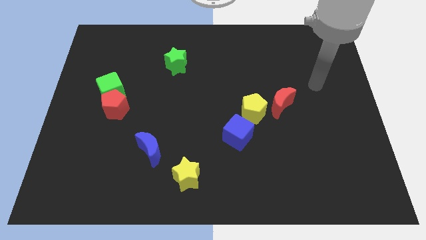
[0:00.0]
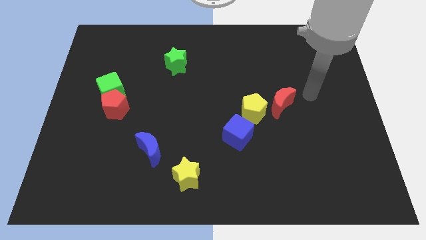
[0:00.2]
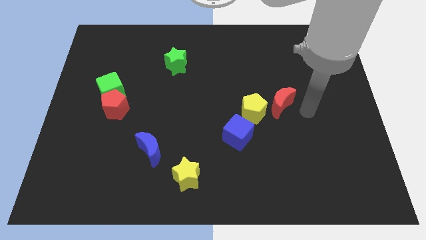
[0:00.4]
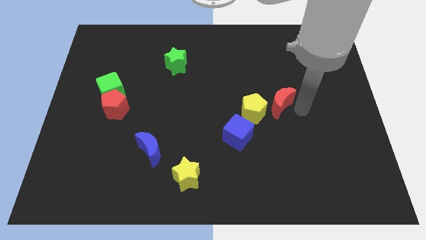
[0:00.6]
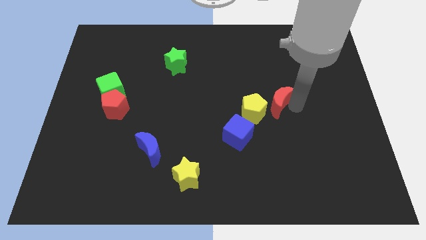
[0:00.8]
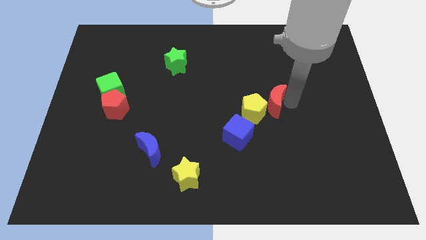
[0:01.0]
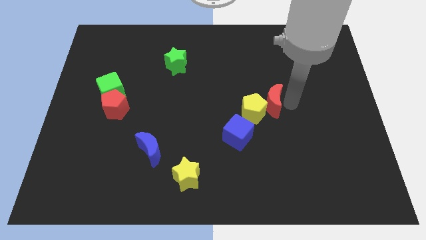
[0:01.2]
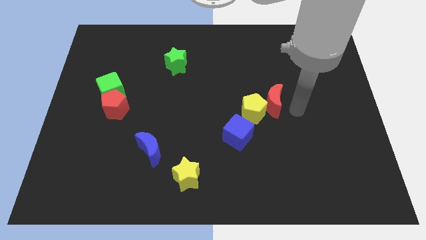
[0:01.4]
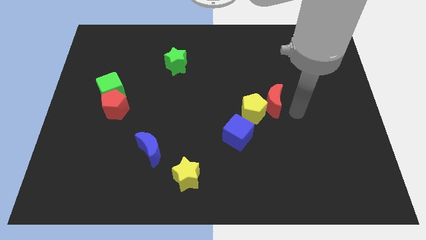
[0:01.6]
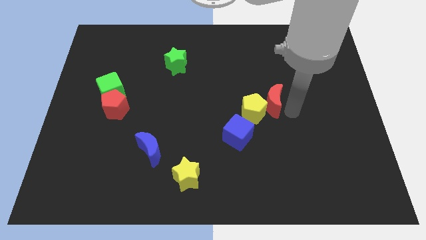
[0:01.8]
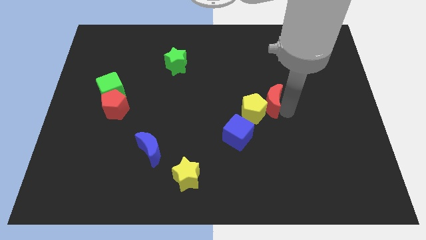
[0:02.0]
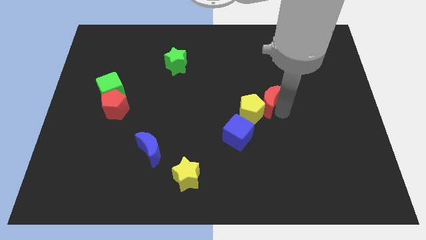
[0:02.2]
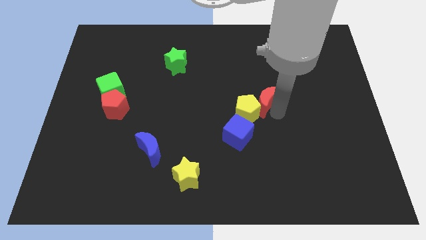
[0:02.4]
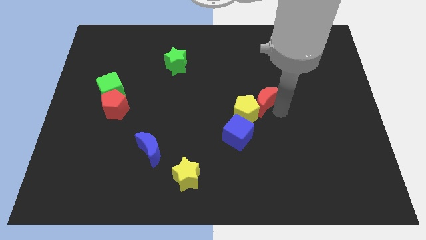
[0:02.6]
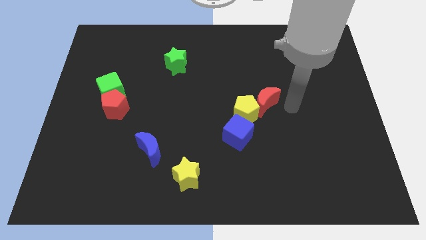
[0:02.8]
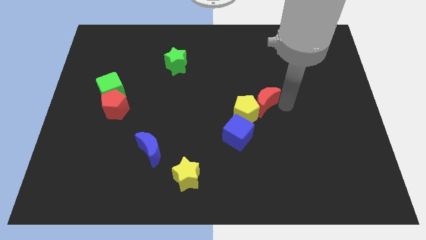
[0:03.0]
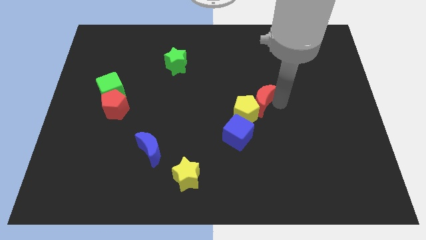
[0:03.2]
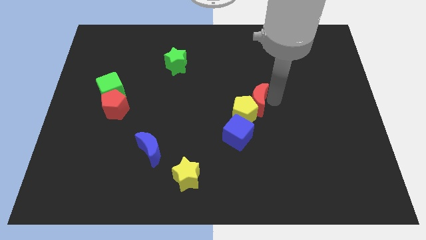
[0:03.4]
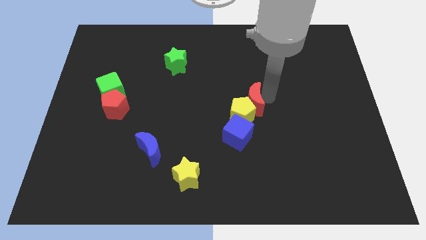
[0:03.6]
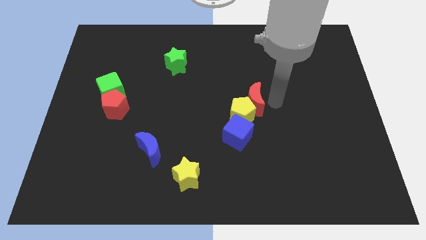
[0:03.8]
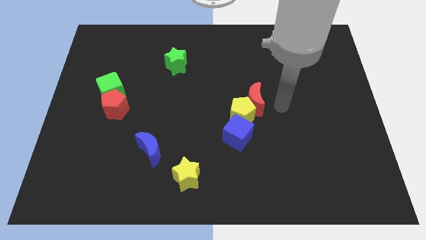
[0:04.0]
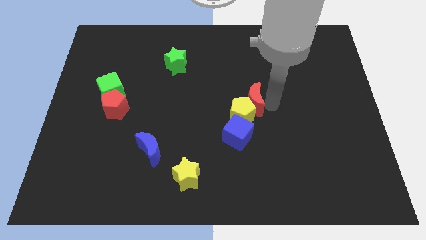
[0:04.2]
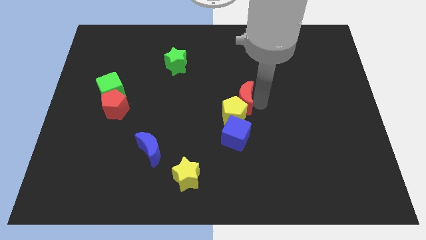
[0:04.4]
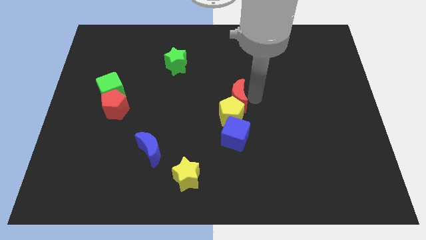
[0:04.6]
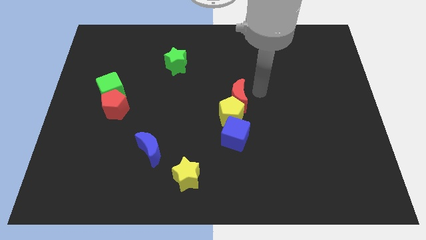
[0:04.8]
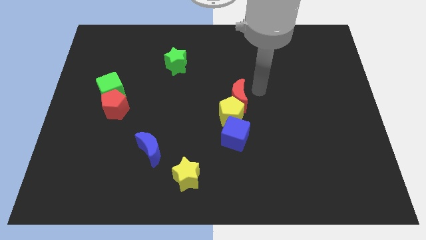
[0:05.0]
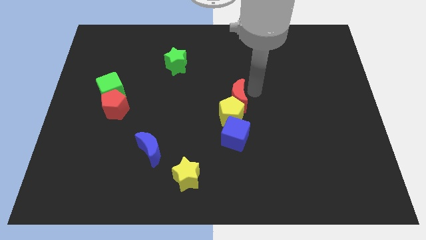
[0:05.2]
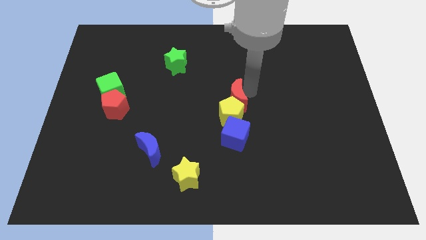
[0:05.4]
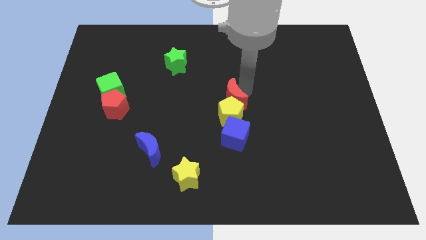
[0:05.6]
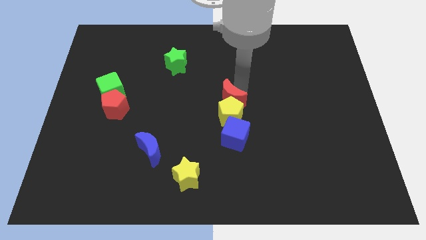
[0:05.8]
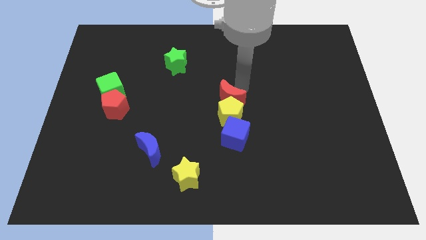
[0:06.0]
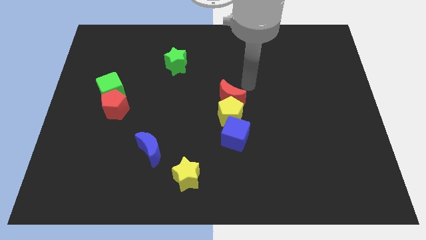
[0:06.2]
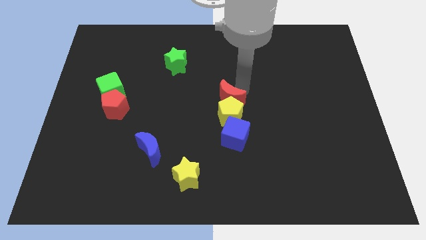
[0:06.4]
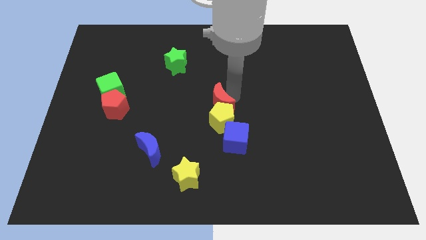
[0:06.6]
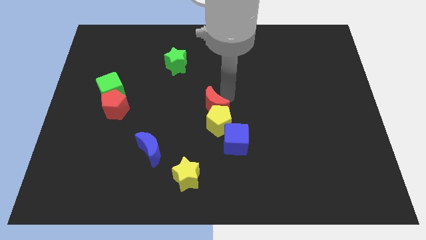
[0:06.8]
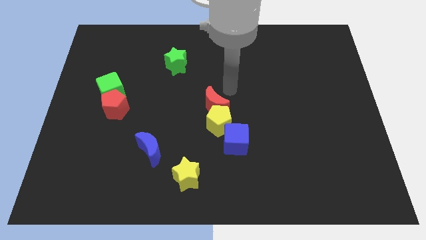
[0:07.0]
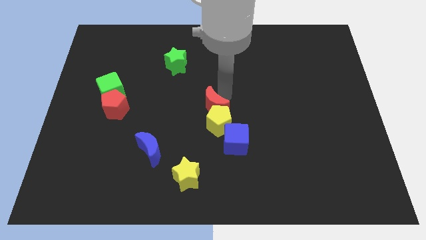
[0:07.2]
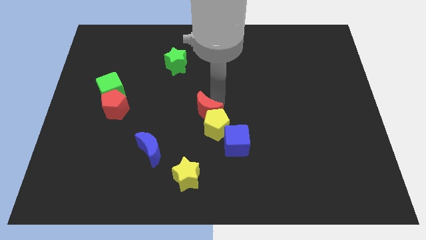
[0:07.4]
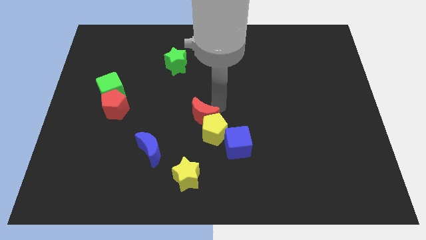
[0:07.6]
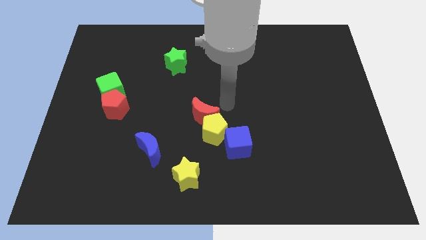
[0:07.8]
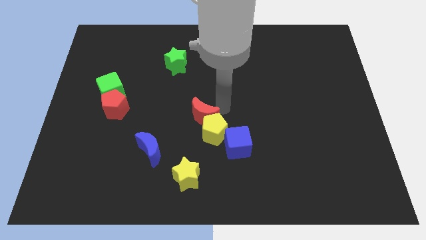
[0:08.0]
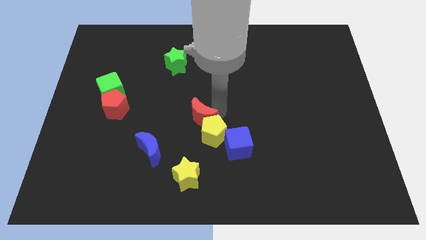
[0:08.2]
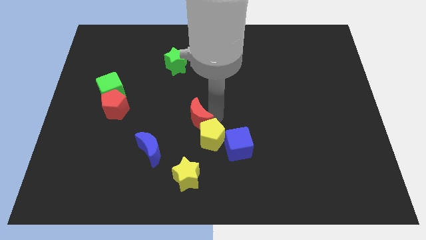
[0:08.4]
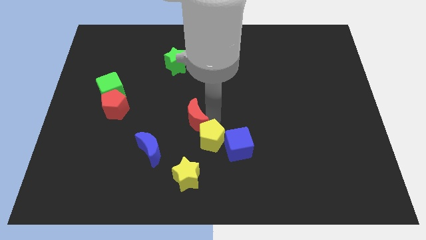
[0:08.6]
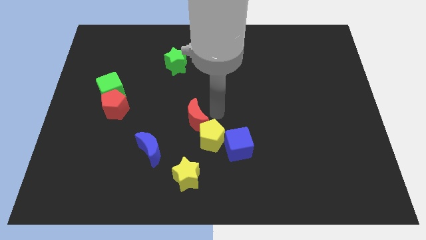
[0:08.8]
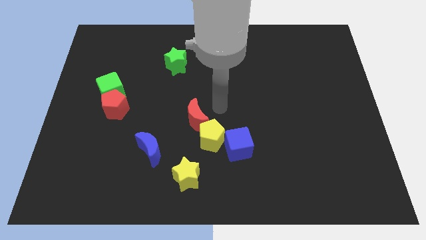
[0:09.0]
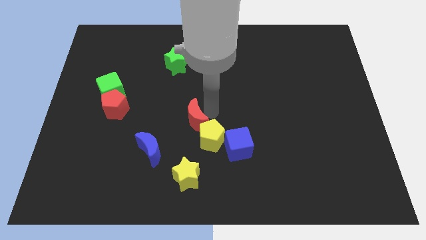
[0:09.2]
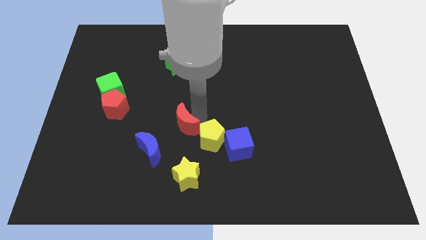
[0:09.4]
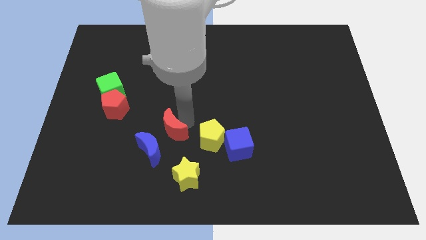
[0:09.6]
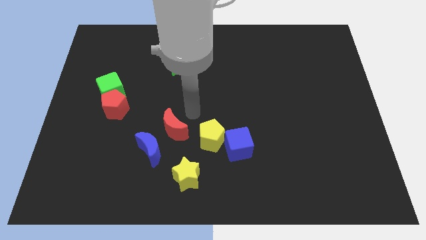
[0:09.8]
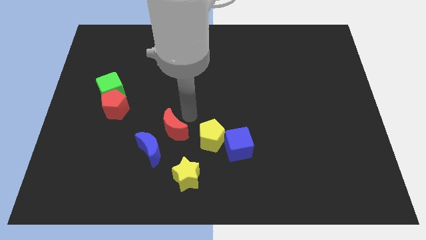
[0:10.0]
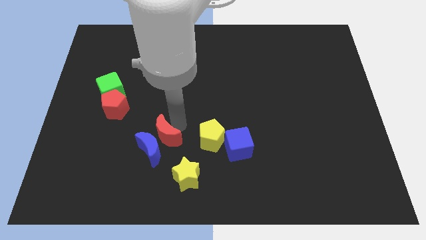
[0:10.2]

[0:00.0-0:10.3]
push the red moon close to the blue moon

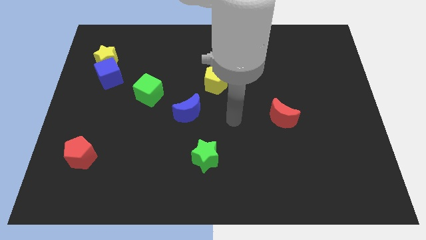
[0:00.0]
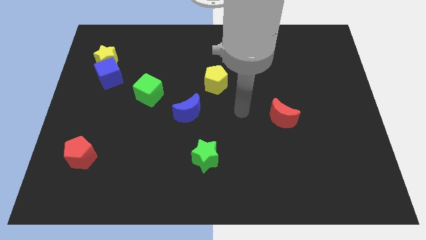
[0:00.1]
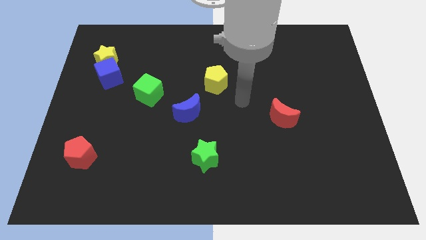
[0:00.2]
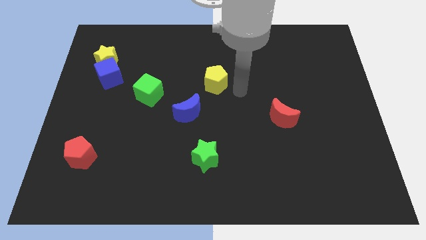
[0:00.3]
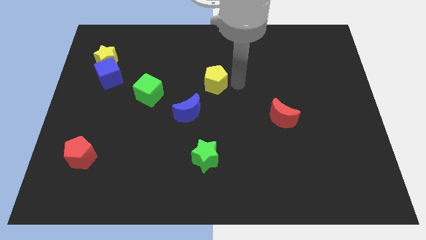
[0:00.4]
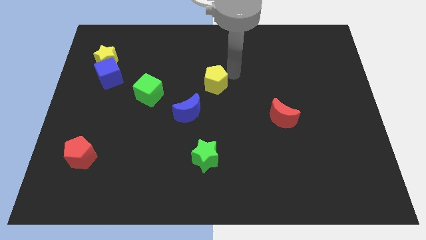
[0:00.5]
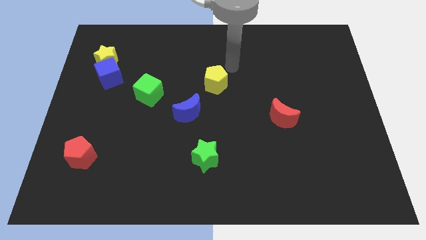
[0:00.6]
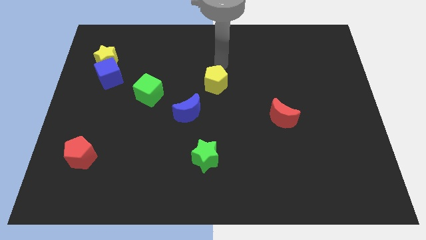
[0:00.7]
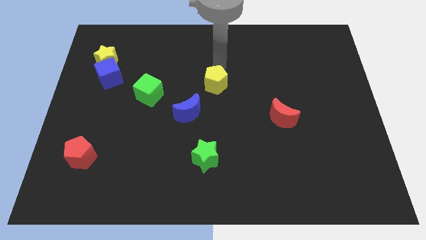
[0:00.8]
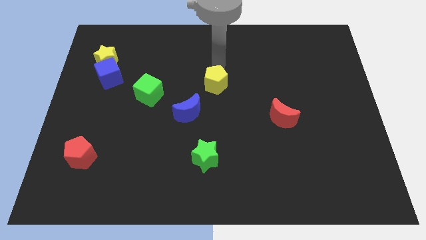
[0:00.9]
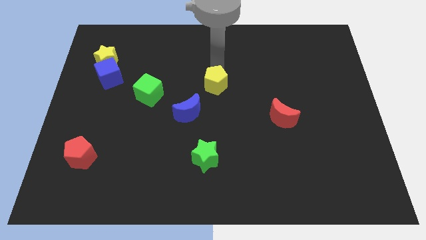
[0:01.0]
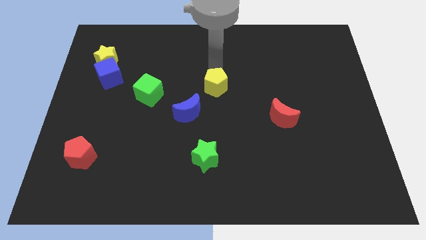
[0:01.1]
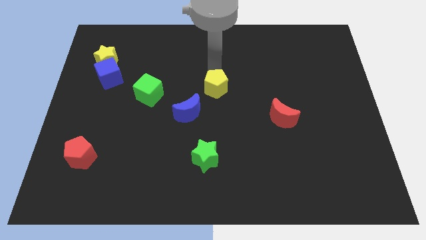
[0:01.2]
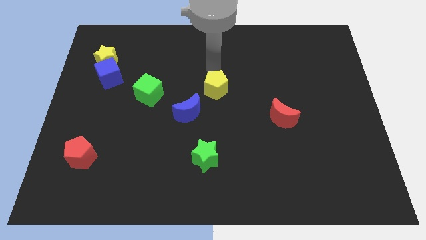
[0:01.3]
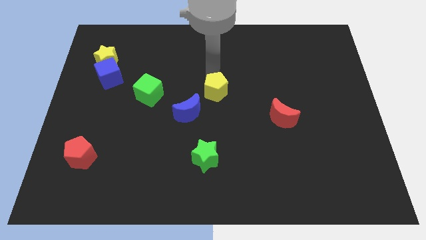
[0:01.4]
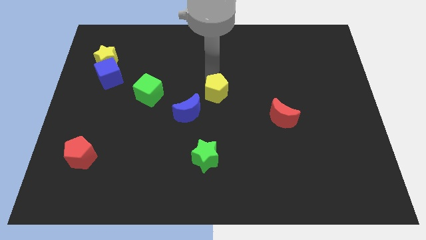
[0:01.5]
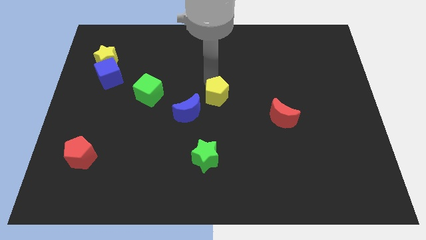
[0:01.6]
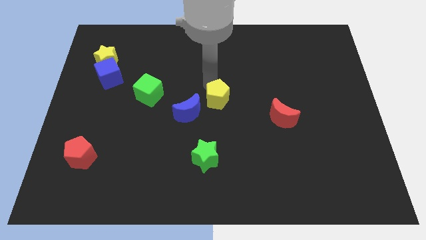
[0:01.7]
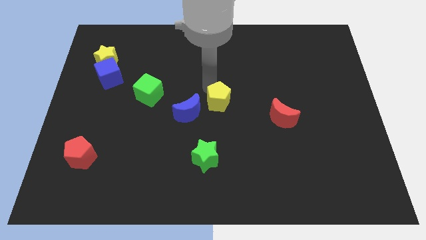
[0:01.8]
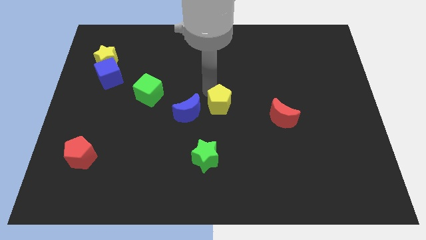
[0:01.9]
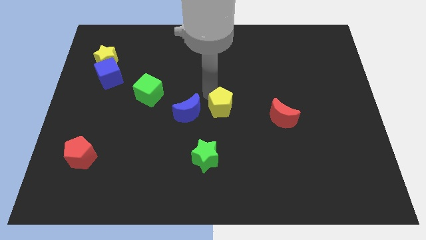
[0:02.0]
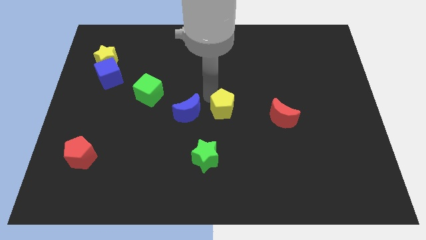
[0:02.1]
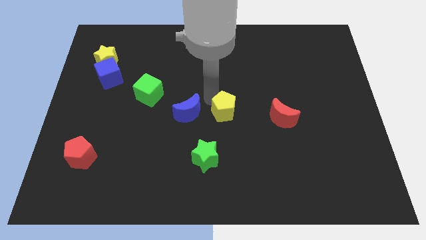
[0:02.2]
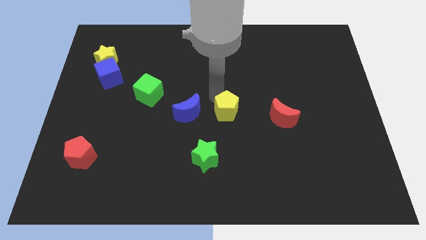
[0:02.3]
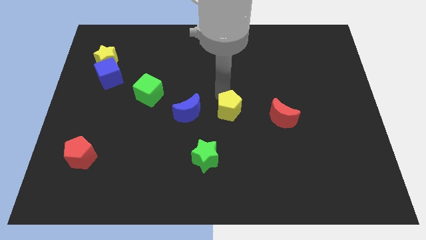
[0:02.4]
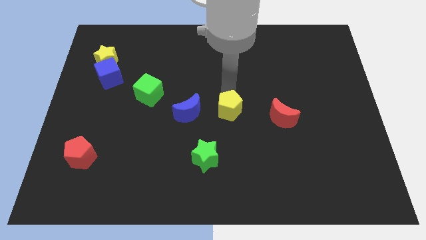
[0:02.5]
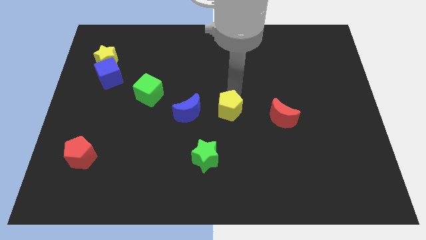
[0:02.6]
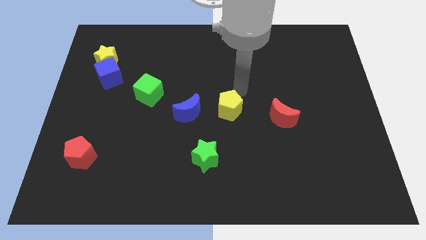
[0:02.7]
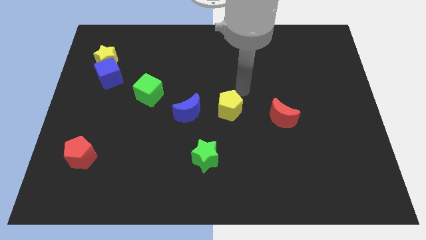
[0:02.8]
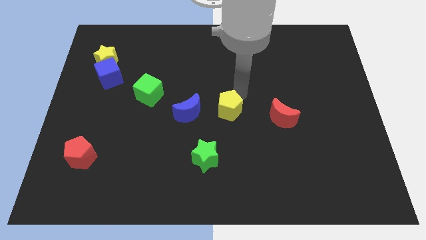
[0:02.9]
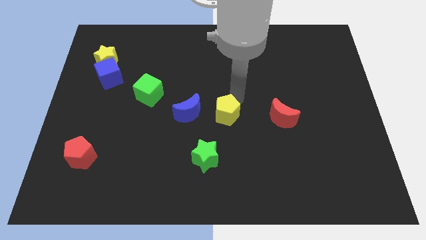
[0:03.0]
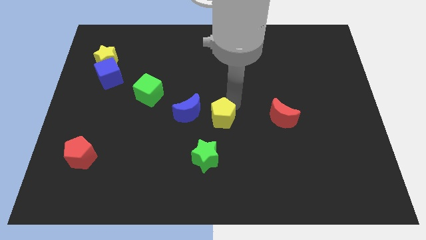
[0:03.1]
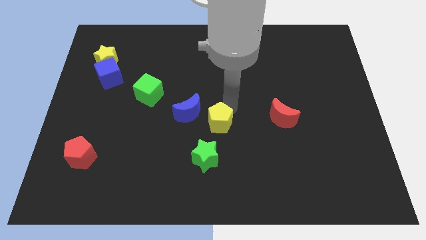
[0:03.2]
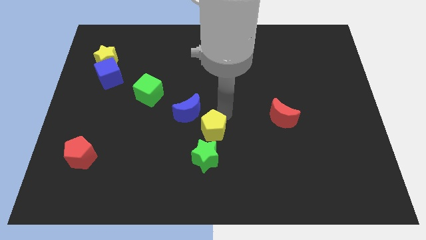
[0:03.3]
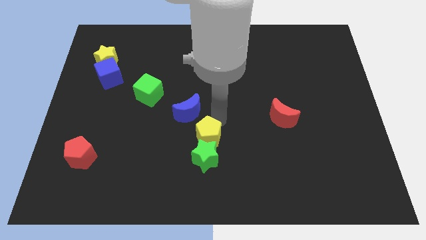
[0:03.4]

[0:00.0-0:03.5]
put the yellow pentagon to the green star
